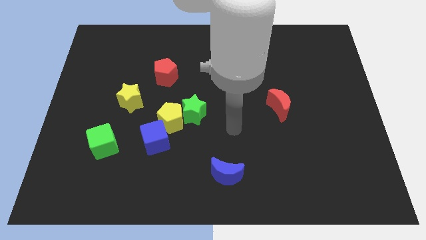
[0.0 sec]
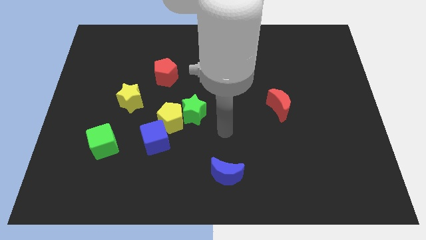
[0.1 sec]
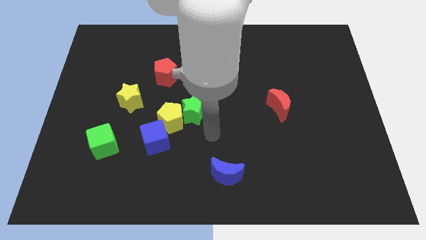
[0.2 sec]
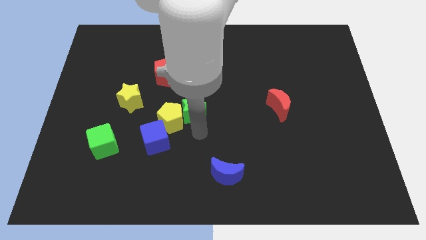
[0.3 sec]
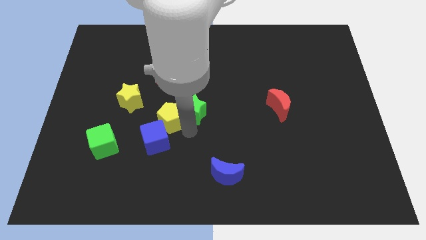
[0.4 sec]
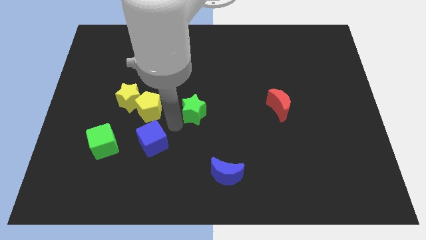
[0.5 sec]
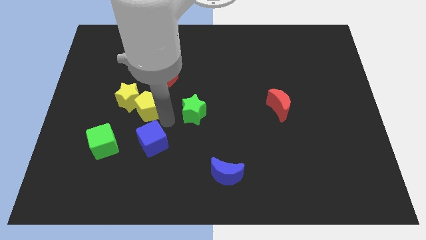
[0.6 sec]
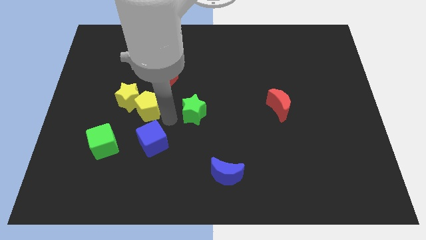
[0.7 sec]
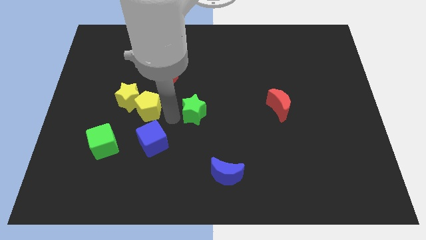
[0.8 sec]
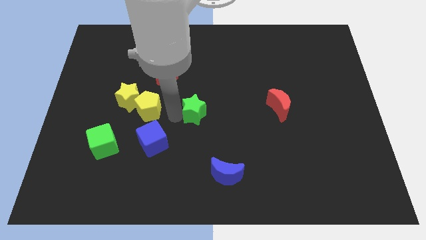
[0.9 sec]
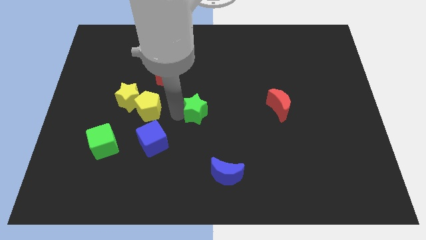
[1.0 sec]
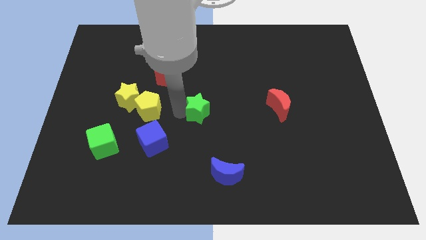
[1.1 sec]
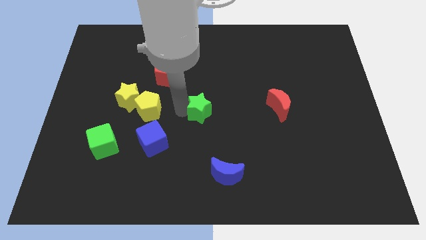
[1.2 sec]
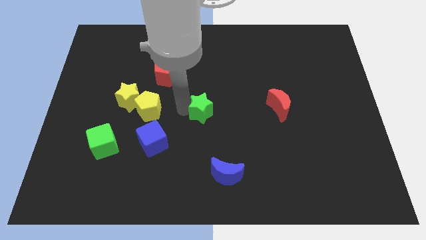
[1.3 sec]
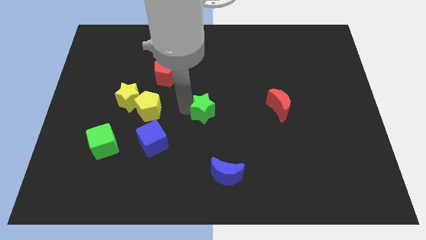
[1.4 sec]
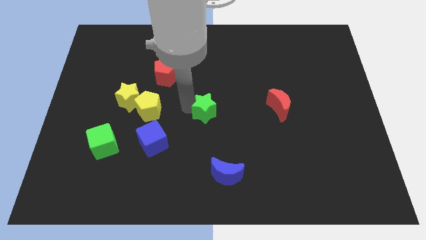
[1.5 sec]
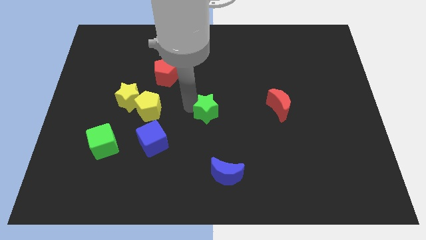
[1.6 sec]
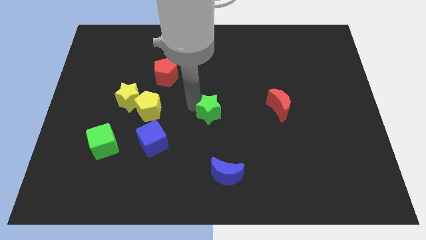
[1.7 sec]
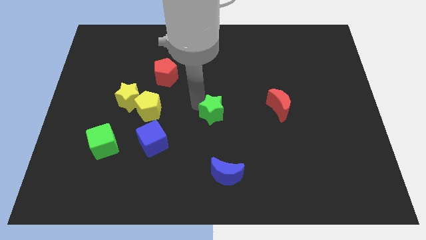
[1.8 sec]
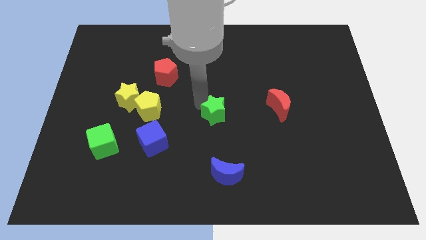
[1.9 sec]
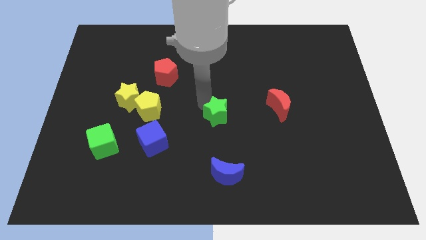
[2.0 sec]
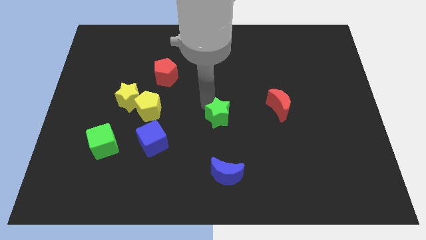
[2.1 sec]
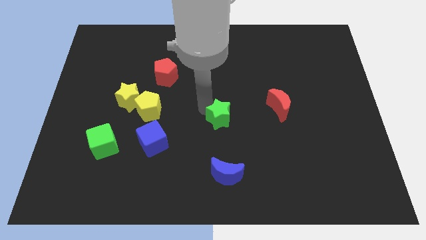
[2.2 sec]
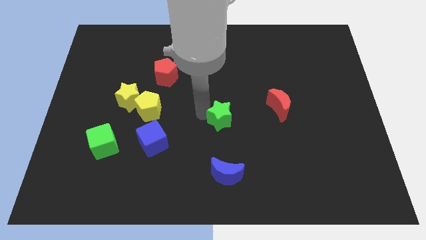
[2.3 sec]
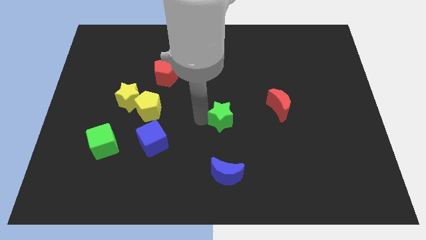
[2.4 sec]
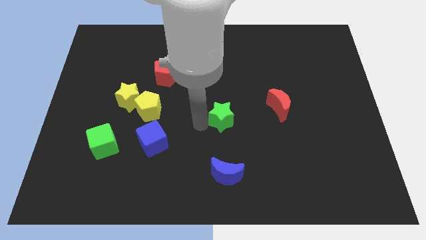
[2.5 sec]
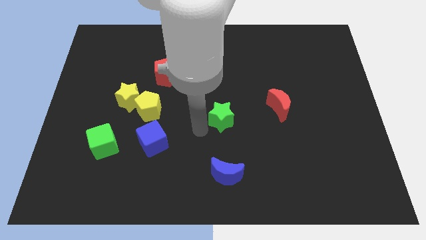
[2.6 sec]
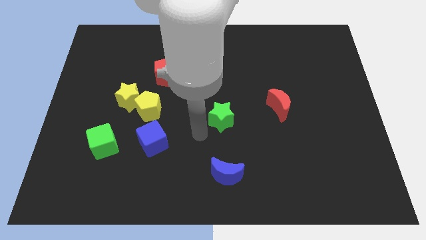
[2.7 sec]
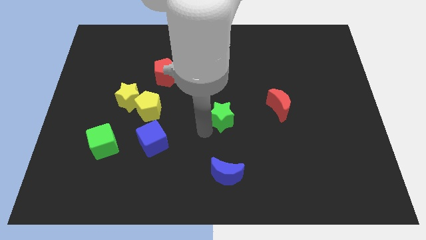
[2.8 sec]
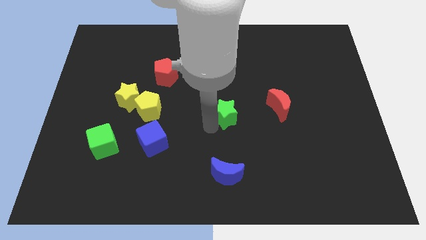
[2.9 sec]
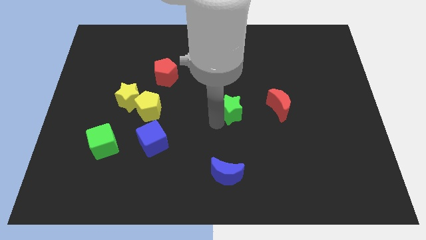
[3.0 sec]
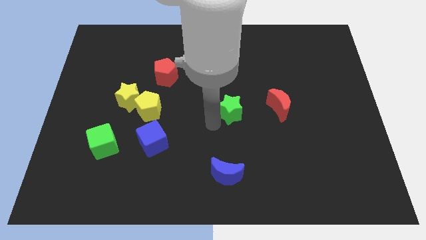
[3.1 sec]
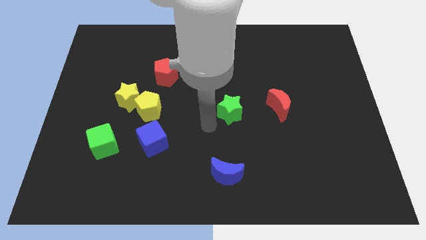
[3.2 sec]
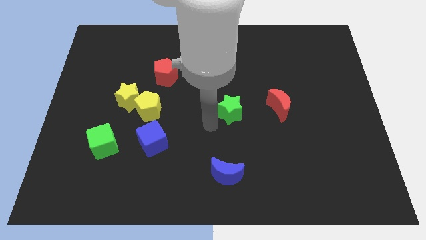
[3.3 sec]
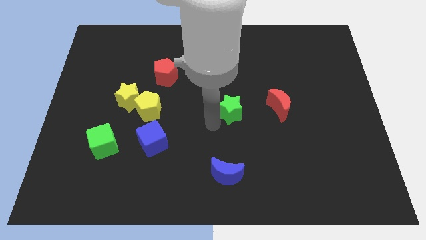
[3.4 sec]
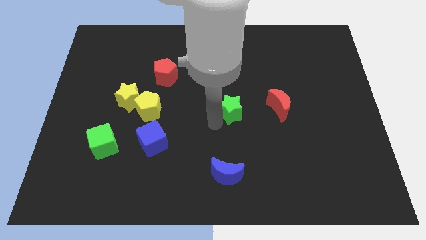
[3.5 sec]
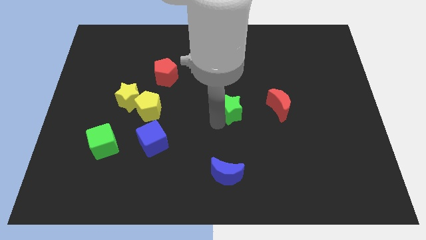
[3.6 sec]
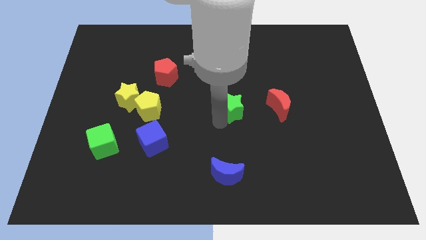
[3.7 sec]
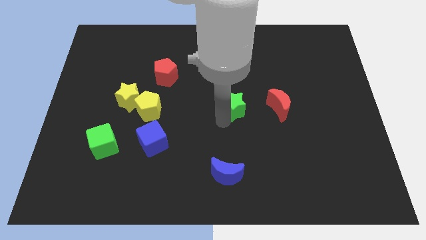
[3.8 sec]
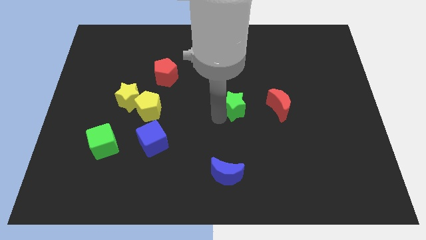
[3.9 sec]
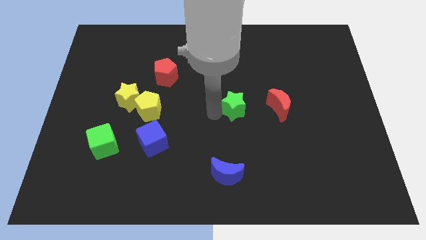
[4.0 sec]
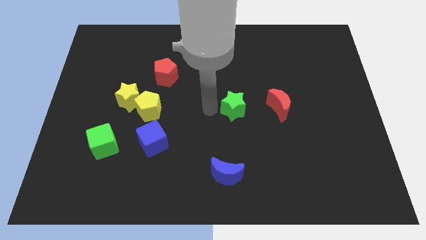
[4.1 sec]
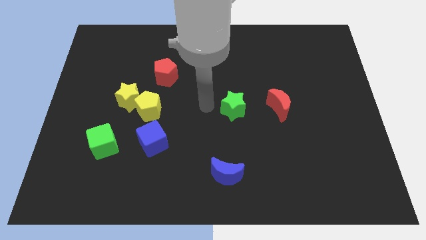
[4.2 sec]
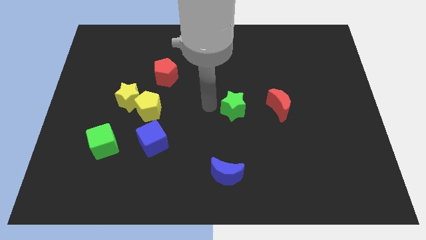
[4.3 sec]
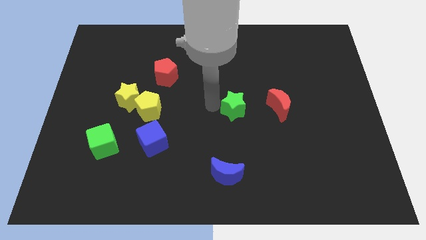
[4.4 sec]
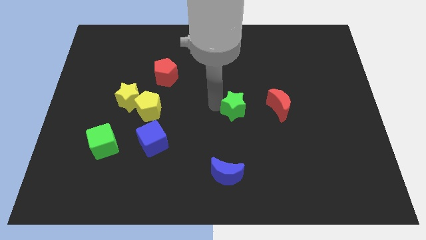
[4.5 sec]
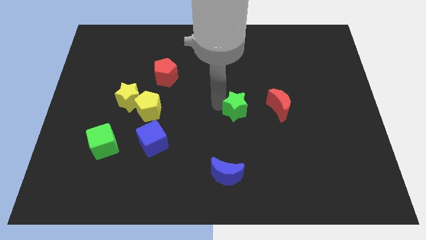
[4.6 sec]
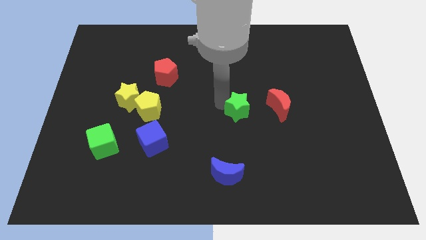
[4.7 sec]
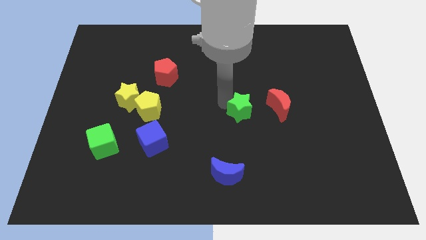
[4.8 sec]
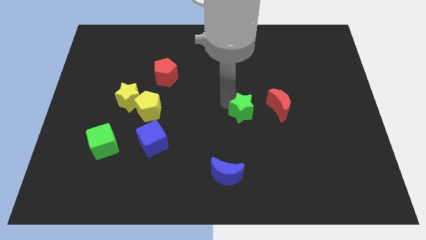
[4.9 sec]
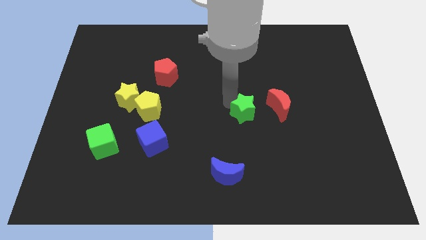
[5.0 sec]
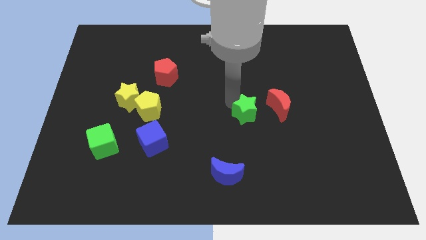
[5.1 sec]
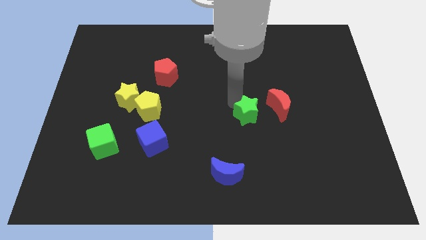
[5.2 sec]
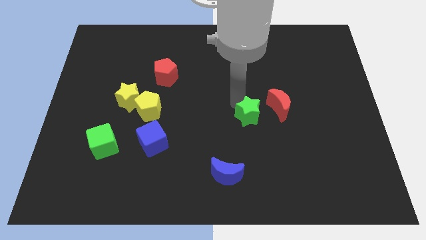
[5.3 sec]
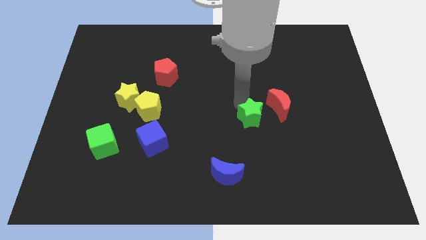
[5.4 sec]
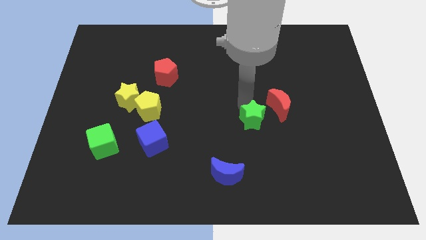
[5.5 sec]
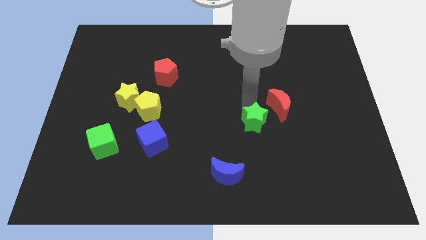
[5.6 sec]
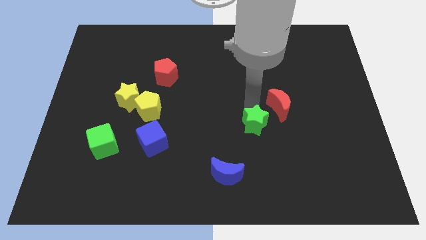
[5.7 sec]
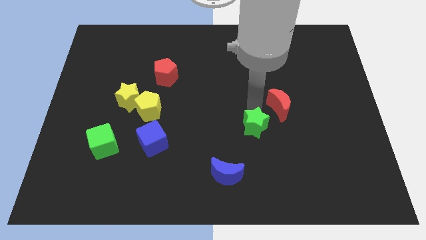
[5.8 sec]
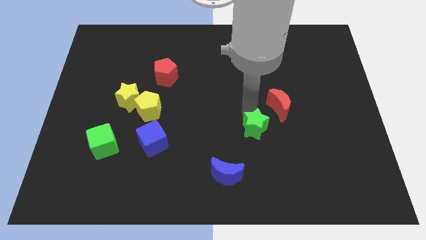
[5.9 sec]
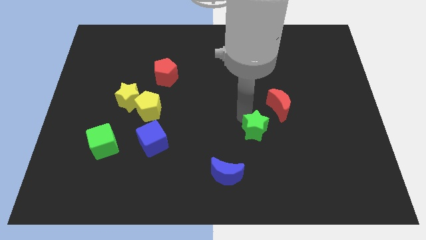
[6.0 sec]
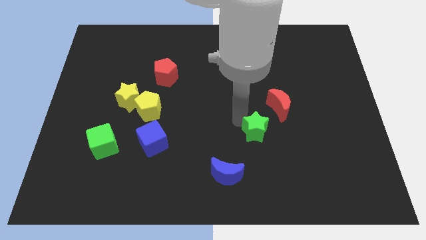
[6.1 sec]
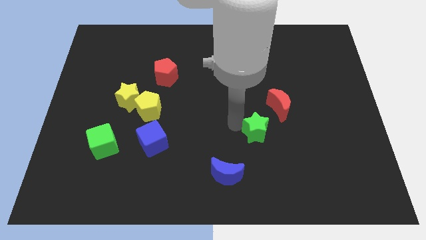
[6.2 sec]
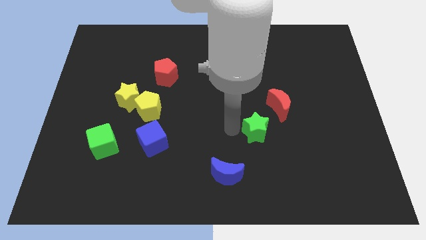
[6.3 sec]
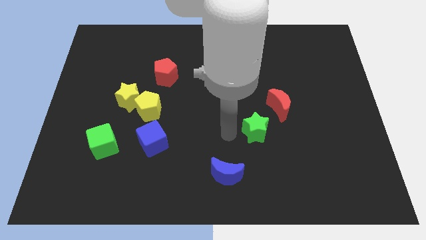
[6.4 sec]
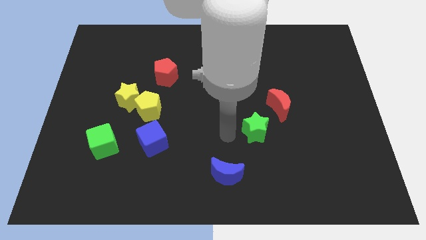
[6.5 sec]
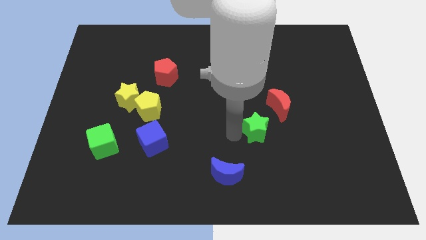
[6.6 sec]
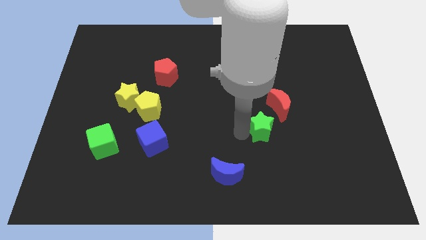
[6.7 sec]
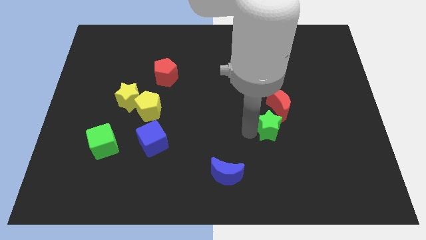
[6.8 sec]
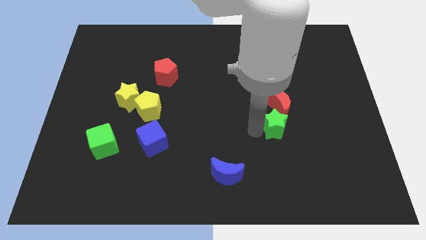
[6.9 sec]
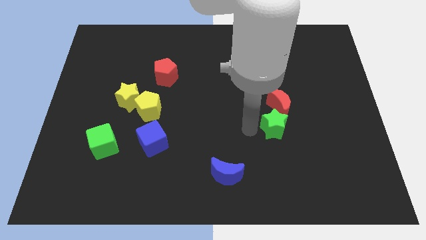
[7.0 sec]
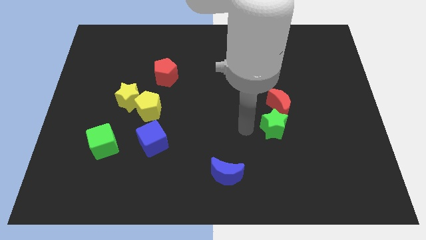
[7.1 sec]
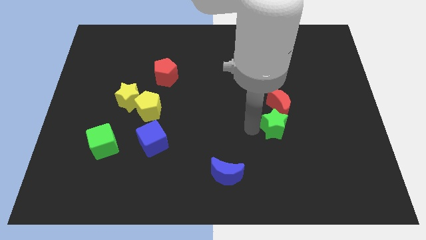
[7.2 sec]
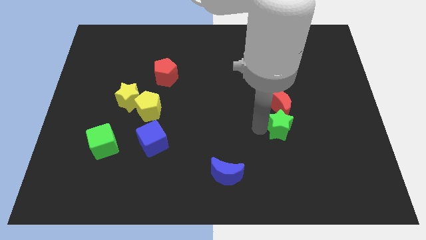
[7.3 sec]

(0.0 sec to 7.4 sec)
put the green star to the bottom right of the red moon
